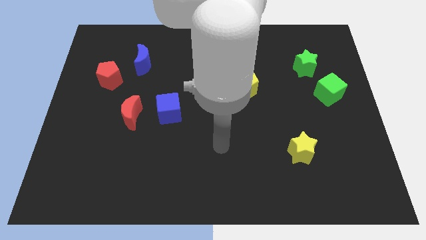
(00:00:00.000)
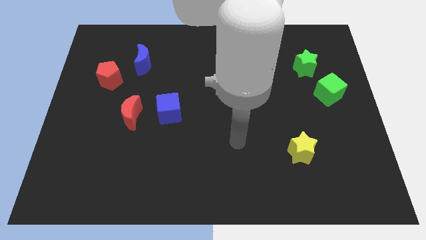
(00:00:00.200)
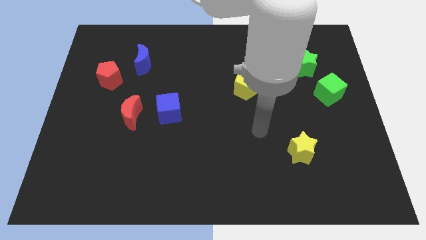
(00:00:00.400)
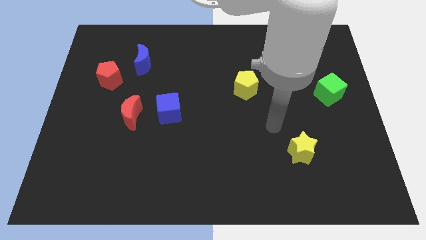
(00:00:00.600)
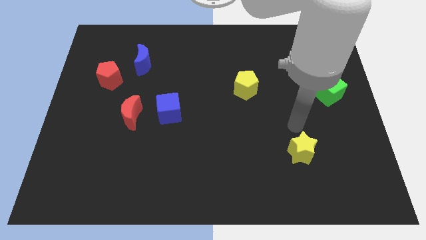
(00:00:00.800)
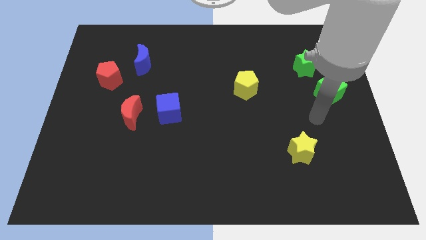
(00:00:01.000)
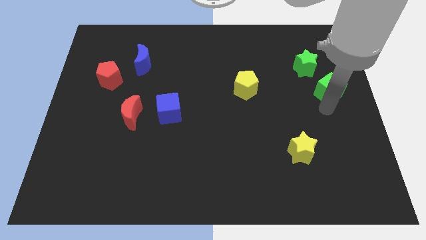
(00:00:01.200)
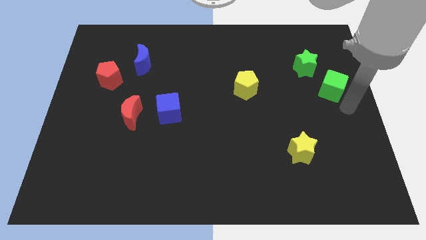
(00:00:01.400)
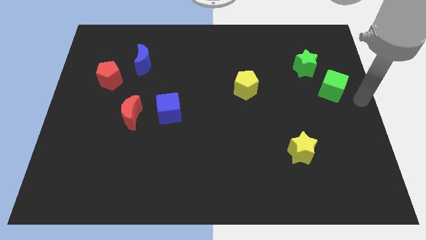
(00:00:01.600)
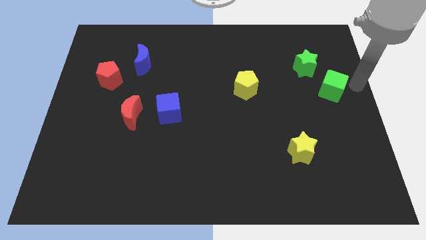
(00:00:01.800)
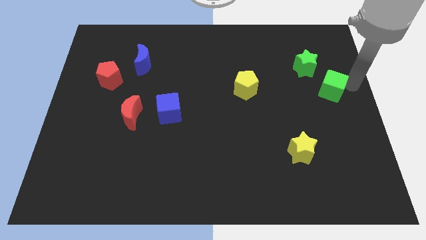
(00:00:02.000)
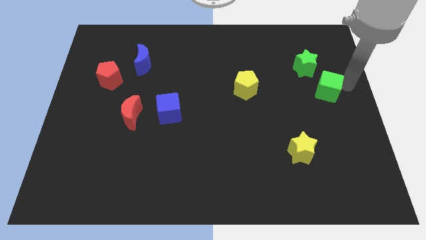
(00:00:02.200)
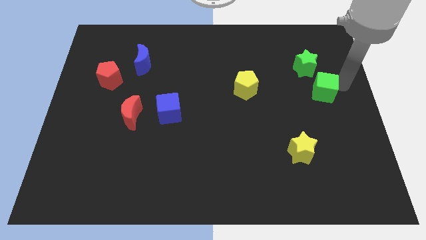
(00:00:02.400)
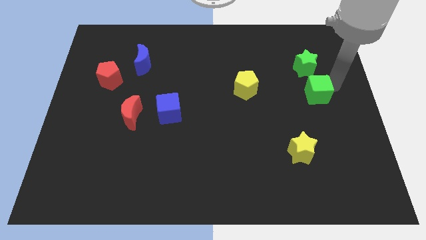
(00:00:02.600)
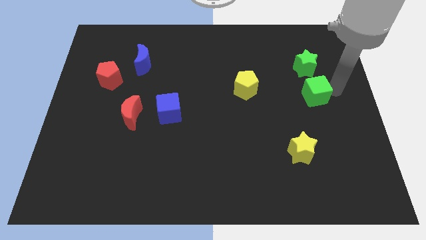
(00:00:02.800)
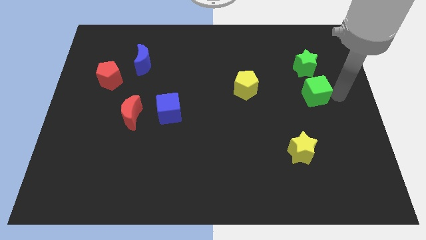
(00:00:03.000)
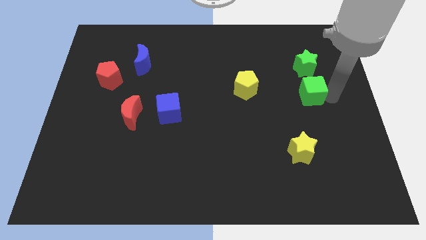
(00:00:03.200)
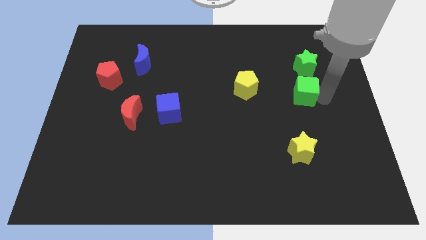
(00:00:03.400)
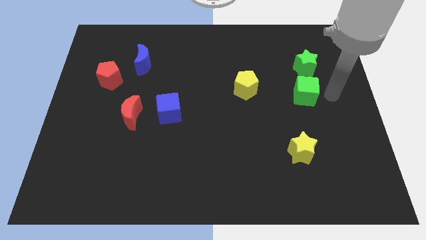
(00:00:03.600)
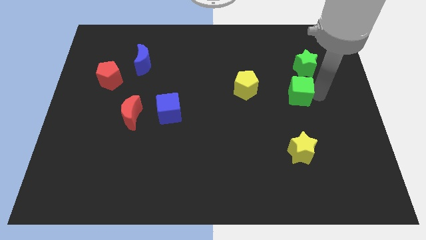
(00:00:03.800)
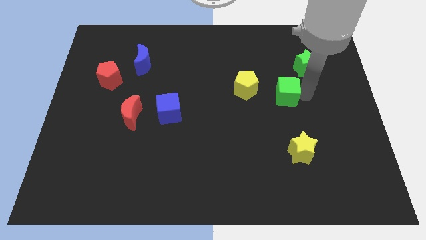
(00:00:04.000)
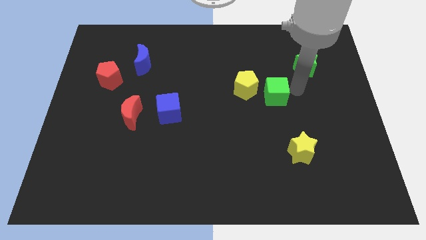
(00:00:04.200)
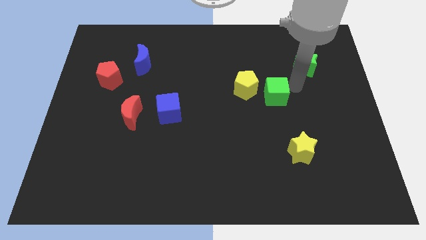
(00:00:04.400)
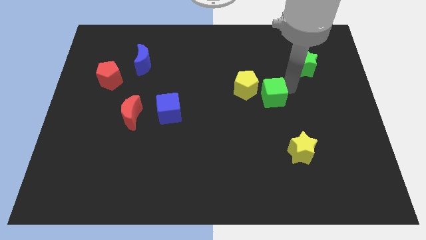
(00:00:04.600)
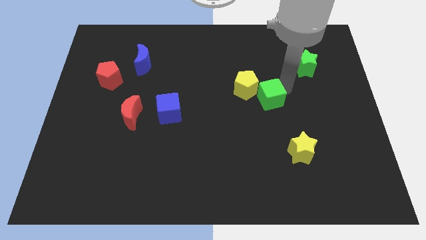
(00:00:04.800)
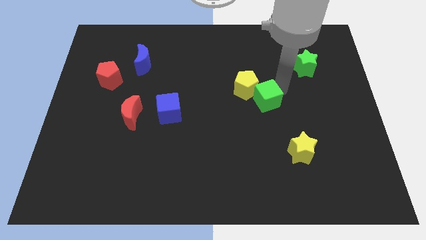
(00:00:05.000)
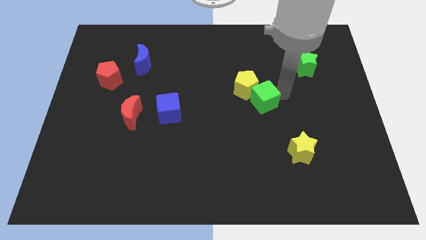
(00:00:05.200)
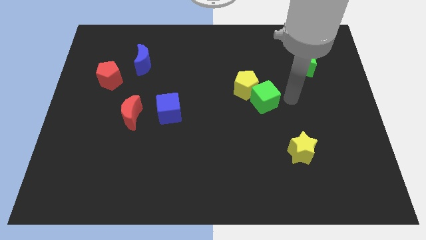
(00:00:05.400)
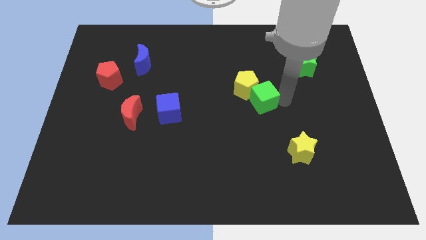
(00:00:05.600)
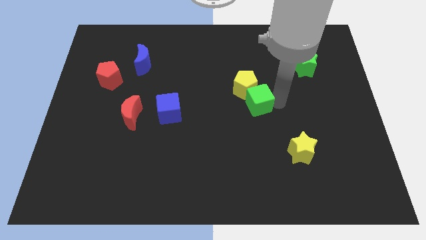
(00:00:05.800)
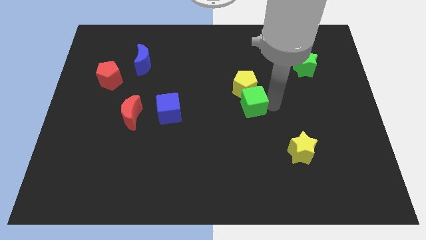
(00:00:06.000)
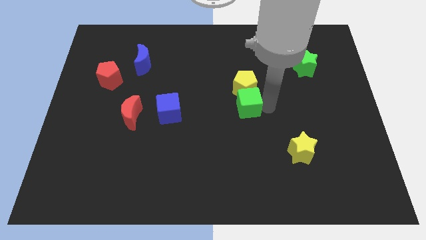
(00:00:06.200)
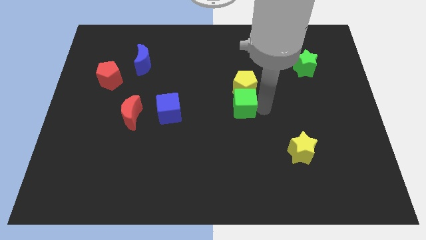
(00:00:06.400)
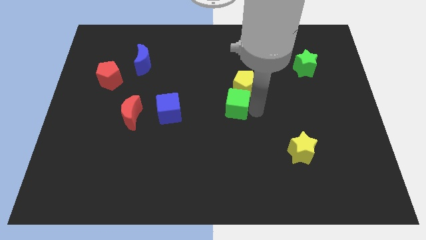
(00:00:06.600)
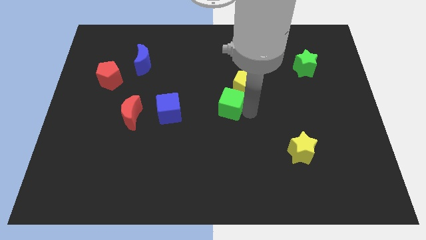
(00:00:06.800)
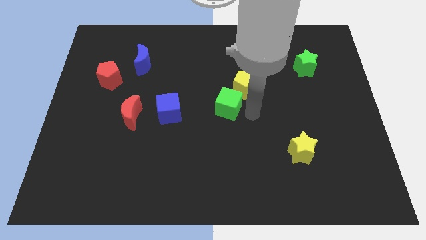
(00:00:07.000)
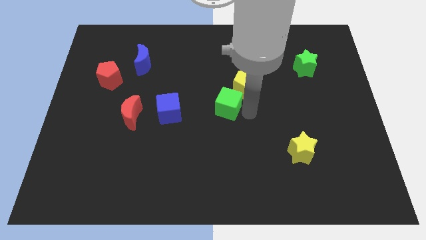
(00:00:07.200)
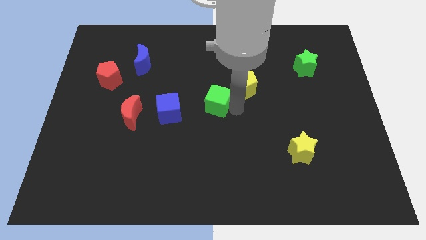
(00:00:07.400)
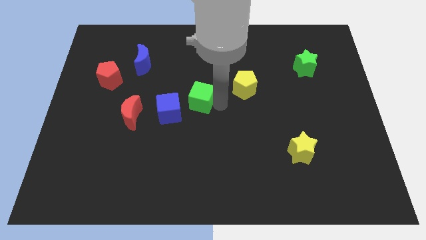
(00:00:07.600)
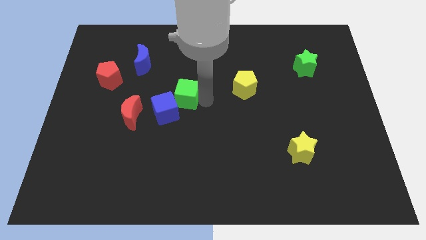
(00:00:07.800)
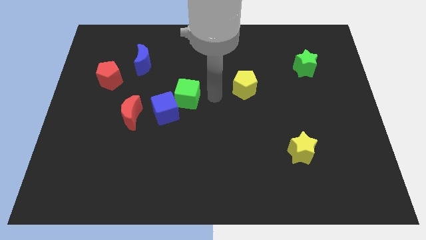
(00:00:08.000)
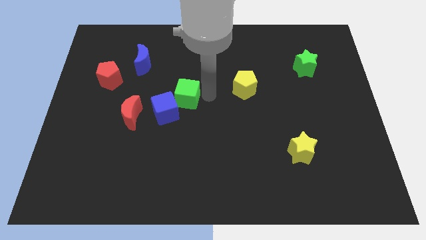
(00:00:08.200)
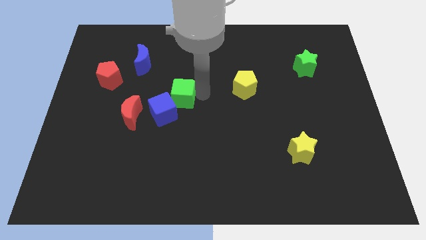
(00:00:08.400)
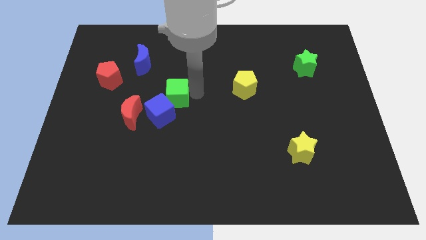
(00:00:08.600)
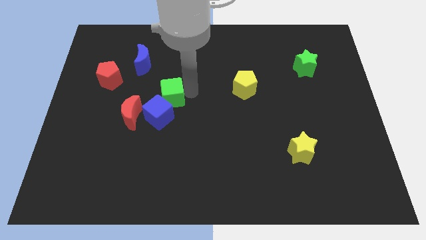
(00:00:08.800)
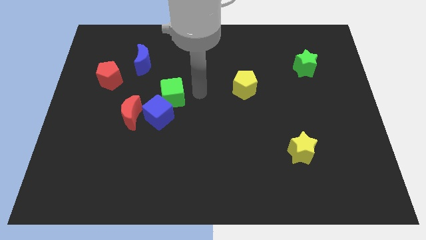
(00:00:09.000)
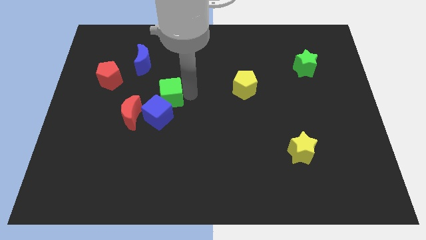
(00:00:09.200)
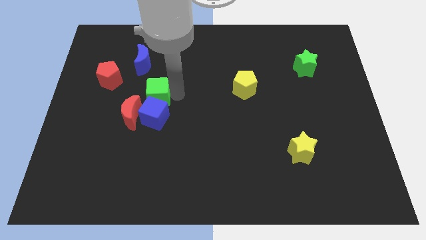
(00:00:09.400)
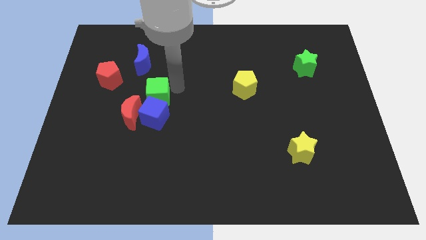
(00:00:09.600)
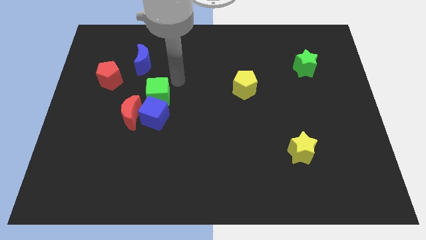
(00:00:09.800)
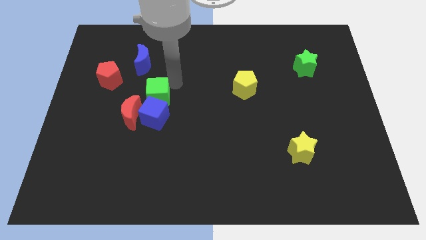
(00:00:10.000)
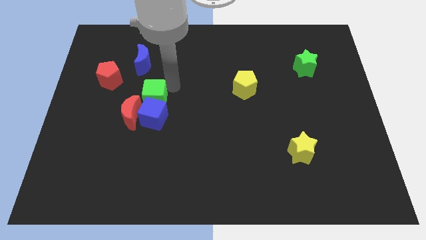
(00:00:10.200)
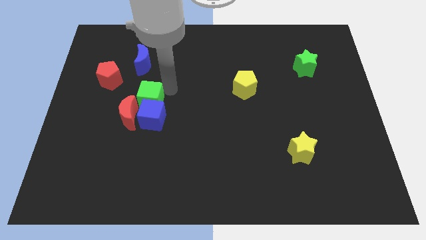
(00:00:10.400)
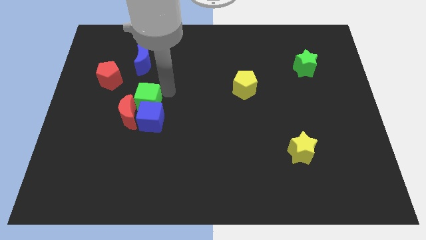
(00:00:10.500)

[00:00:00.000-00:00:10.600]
slide the green cube towards the red moon

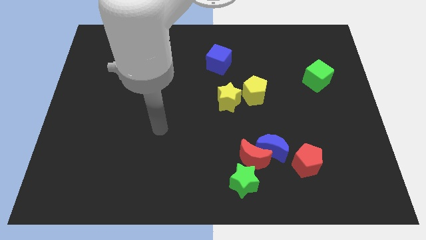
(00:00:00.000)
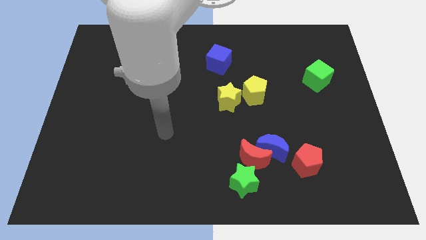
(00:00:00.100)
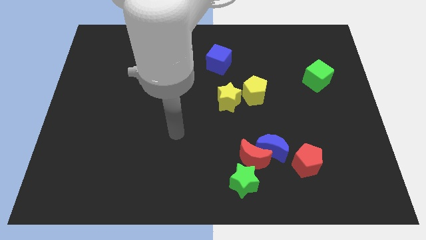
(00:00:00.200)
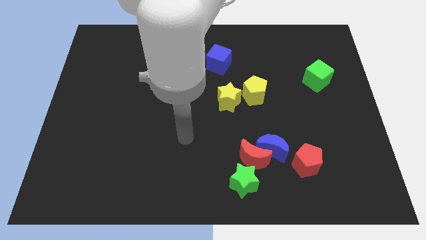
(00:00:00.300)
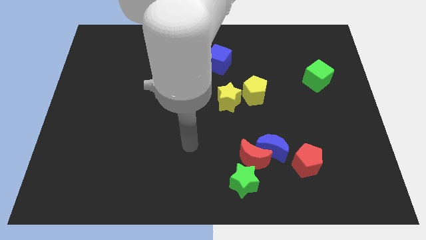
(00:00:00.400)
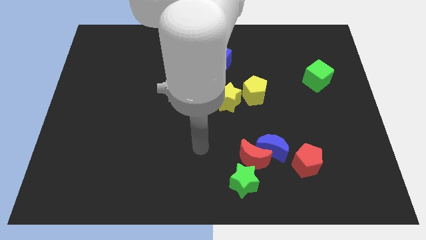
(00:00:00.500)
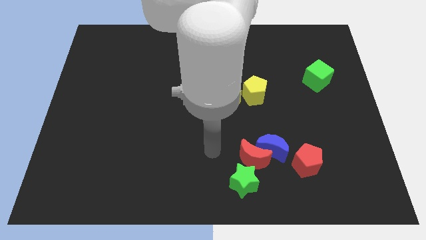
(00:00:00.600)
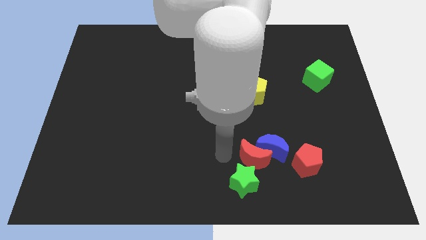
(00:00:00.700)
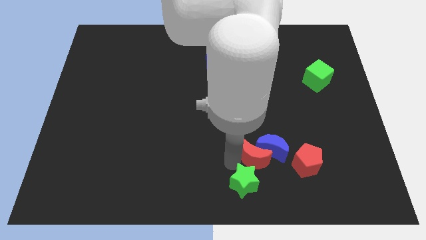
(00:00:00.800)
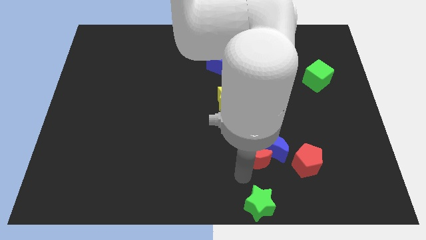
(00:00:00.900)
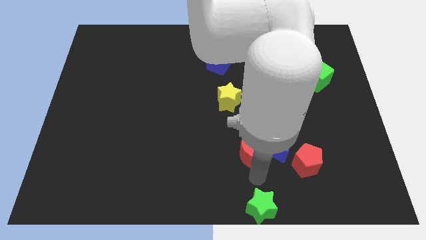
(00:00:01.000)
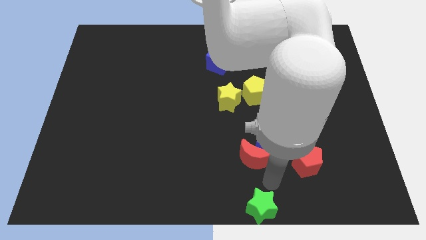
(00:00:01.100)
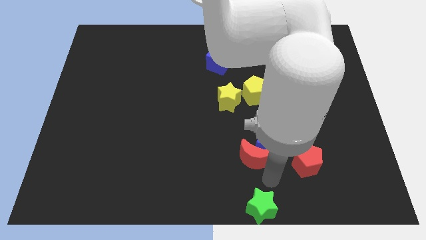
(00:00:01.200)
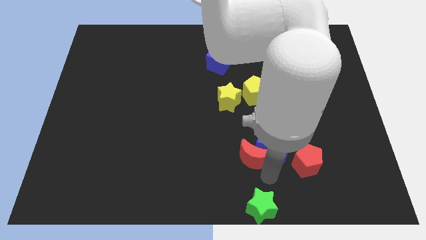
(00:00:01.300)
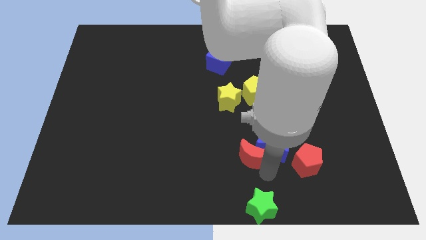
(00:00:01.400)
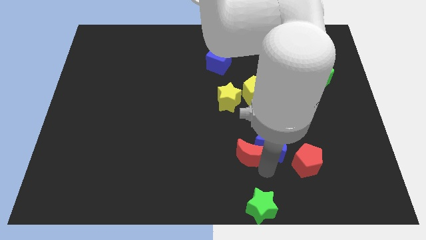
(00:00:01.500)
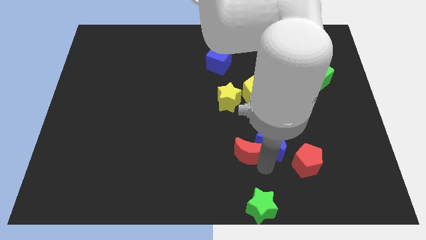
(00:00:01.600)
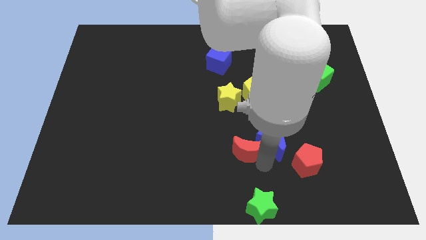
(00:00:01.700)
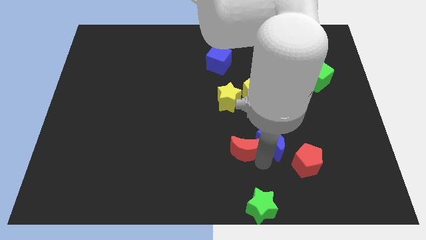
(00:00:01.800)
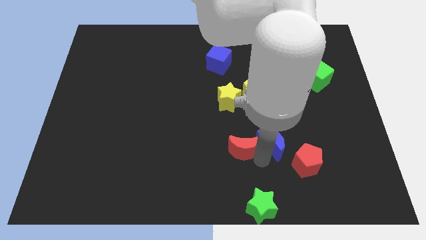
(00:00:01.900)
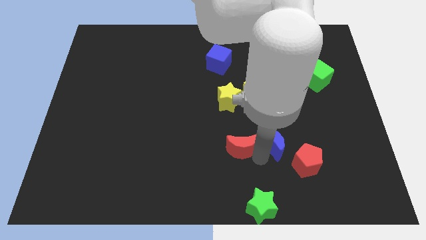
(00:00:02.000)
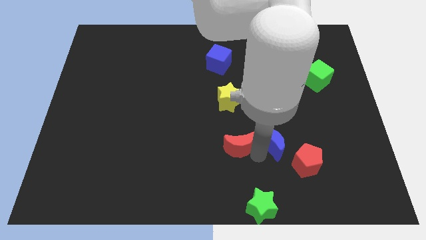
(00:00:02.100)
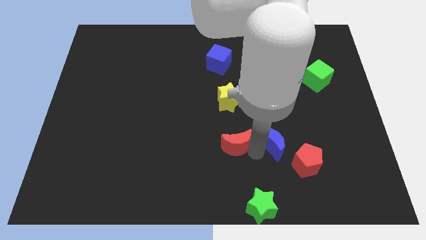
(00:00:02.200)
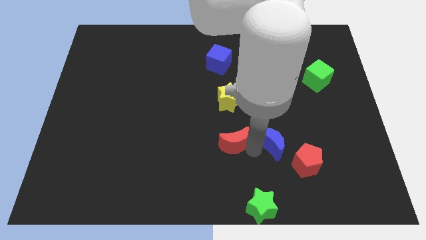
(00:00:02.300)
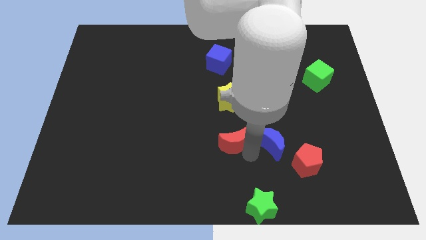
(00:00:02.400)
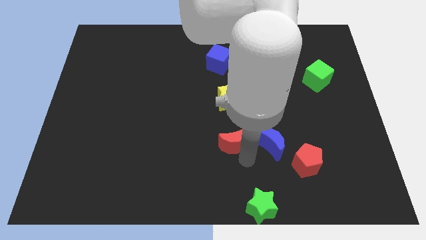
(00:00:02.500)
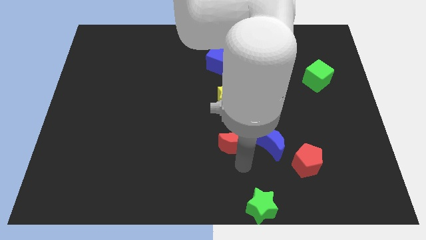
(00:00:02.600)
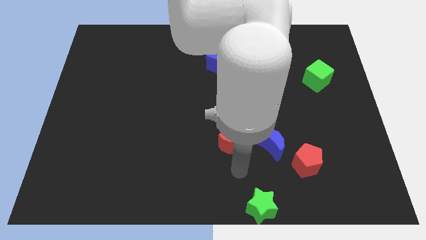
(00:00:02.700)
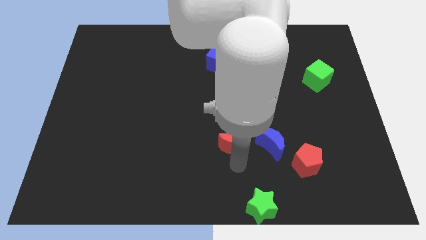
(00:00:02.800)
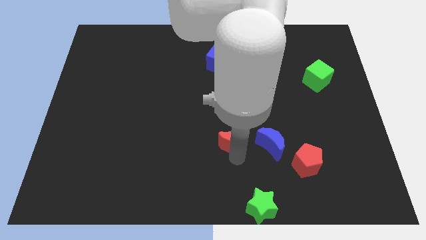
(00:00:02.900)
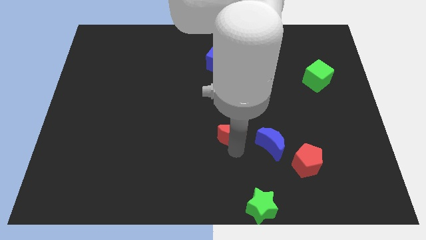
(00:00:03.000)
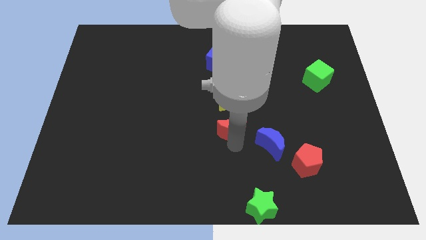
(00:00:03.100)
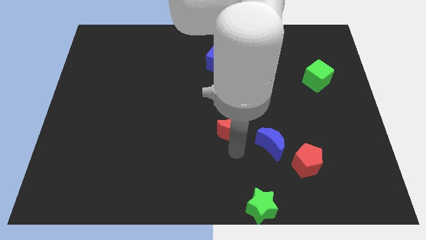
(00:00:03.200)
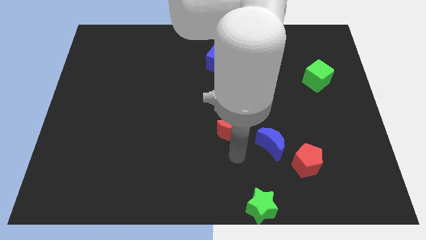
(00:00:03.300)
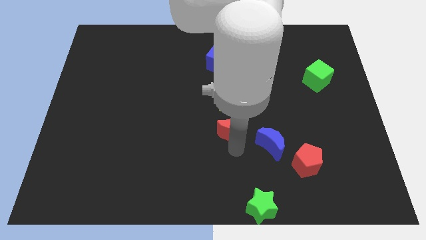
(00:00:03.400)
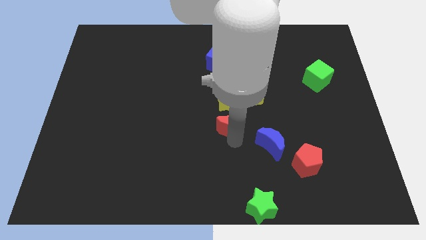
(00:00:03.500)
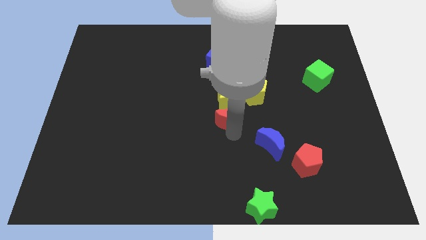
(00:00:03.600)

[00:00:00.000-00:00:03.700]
put the red moon close to the yellow star
